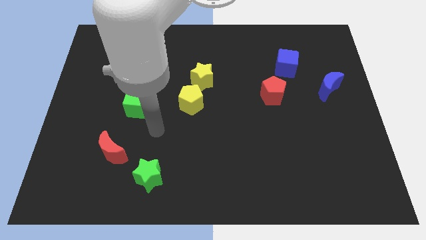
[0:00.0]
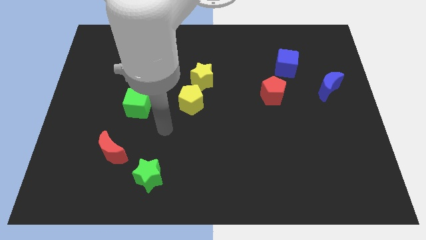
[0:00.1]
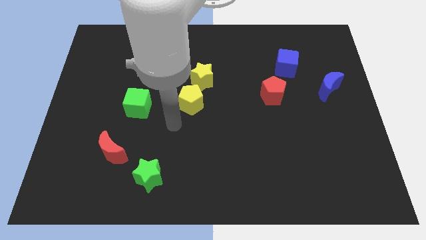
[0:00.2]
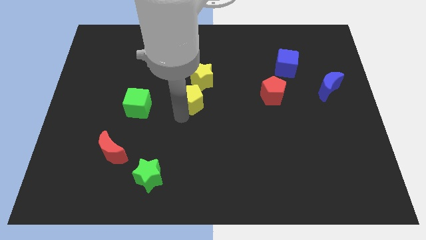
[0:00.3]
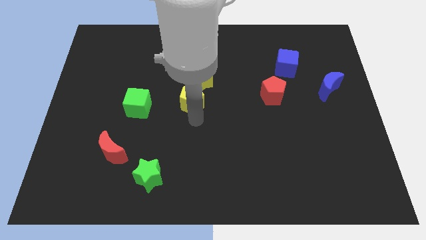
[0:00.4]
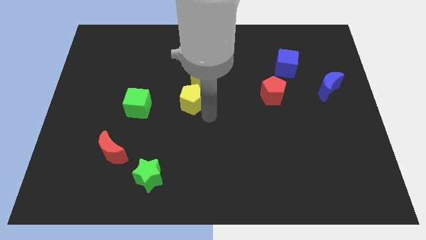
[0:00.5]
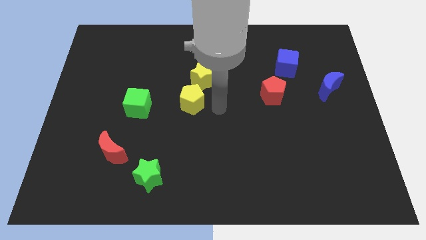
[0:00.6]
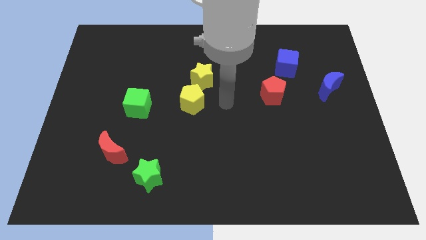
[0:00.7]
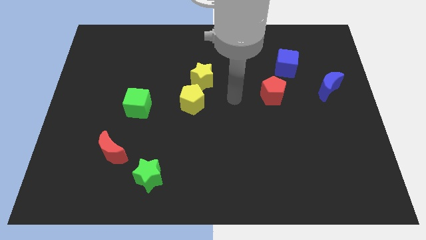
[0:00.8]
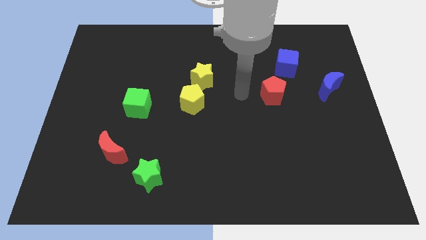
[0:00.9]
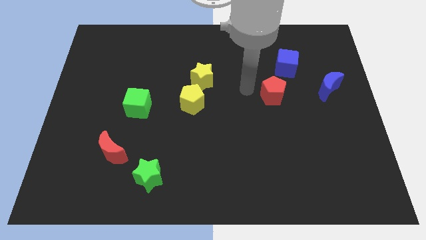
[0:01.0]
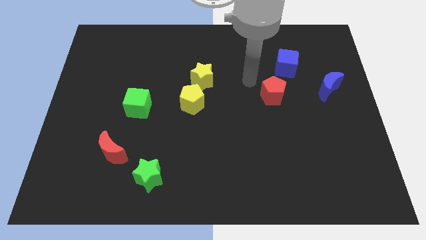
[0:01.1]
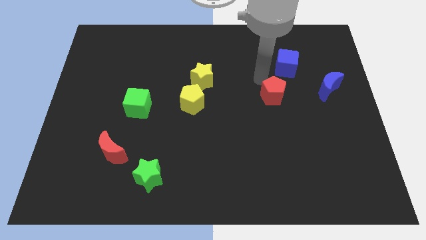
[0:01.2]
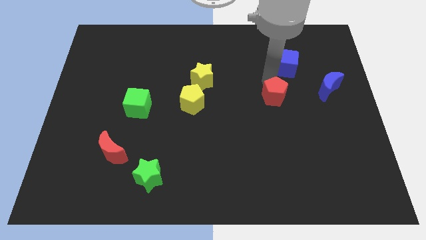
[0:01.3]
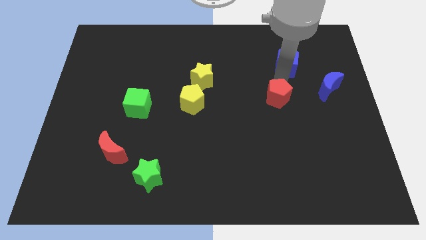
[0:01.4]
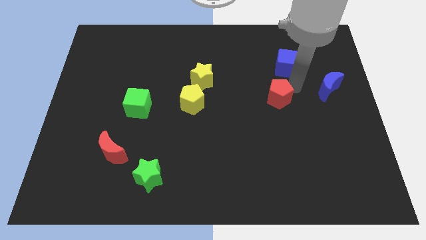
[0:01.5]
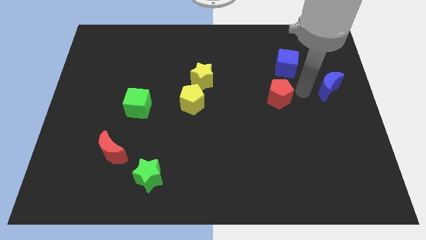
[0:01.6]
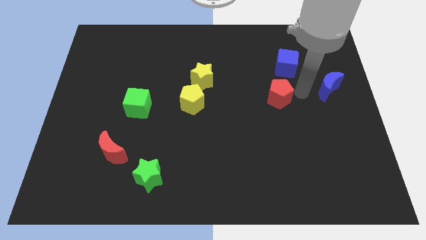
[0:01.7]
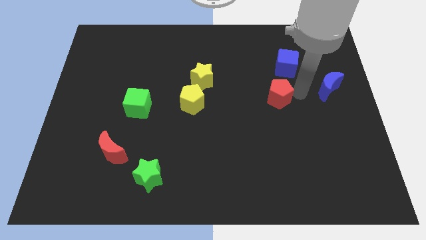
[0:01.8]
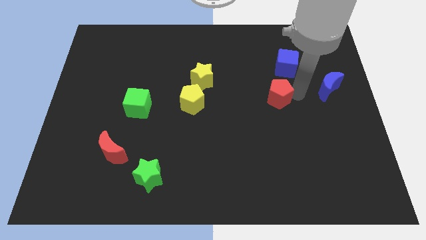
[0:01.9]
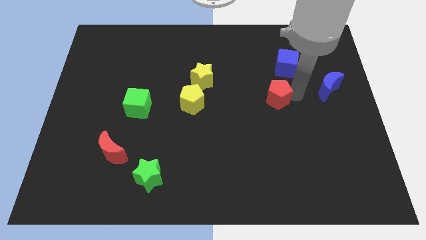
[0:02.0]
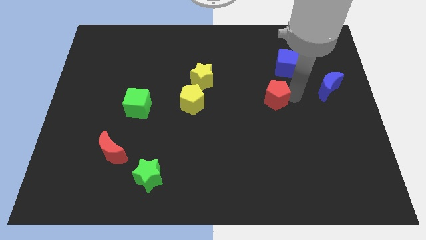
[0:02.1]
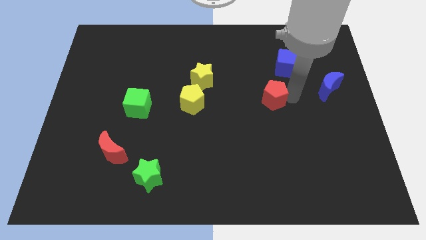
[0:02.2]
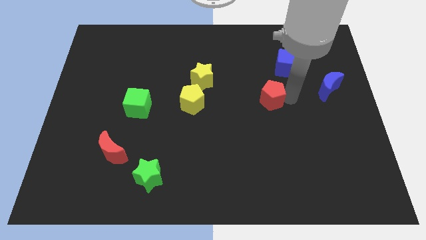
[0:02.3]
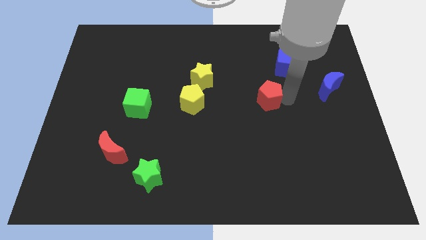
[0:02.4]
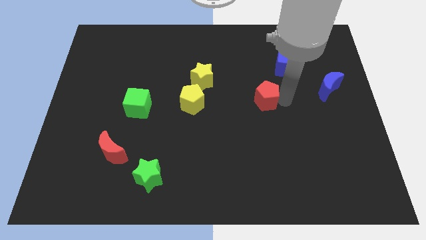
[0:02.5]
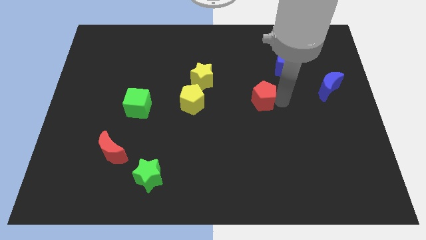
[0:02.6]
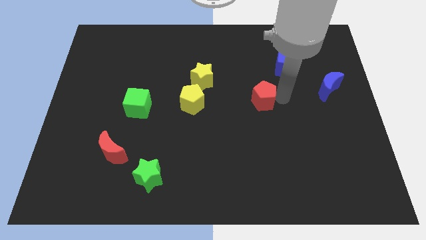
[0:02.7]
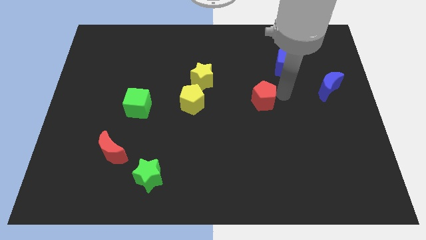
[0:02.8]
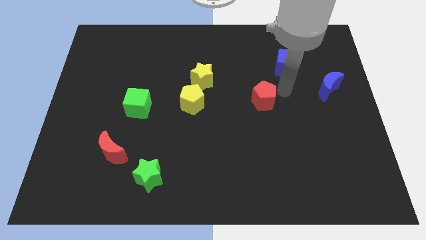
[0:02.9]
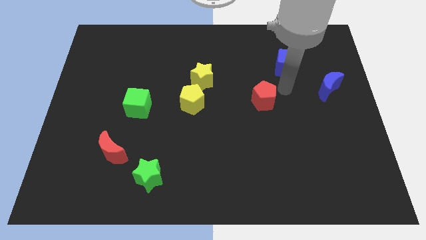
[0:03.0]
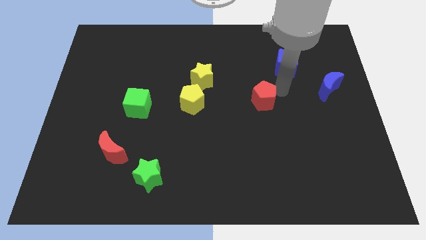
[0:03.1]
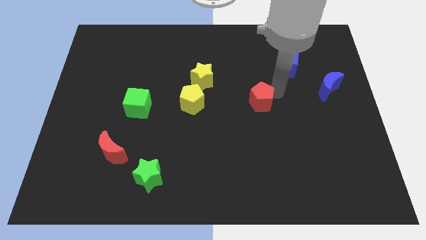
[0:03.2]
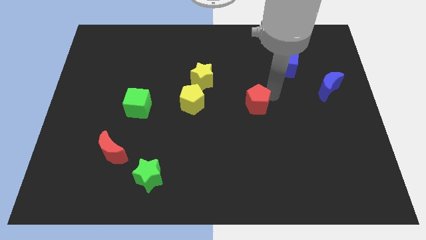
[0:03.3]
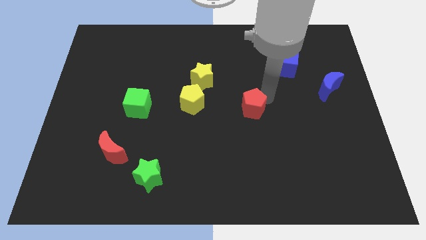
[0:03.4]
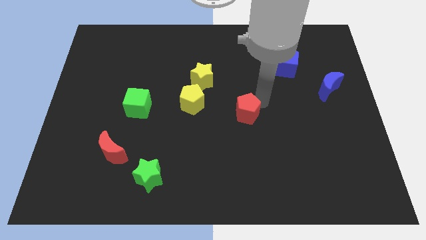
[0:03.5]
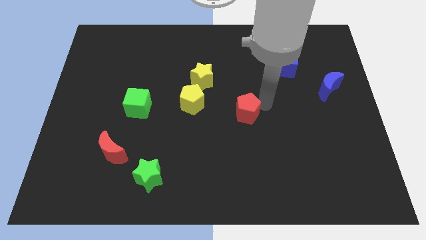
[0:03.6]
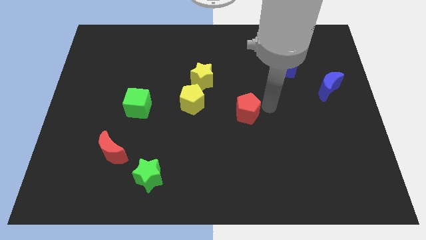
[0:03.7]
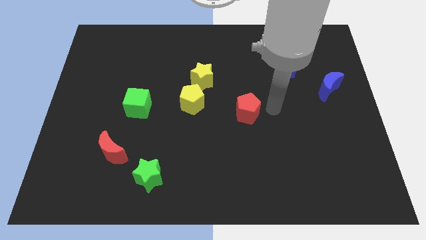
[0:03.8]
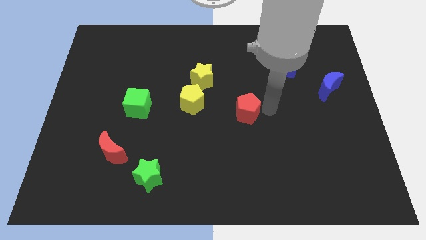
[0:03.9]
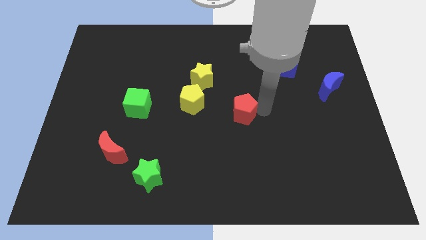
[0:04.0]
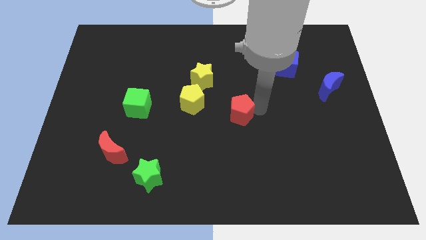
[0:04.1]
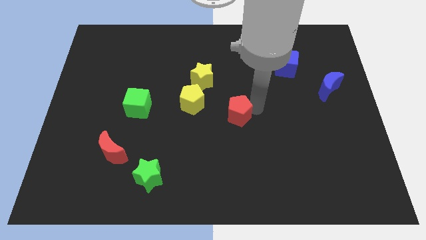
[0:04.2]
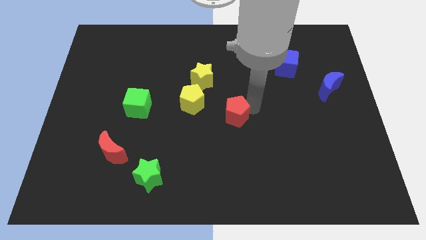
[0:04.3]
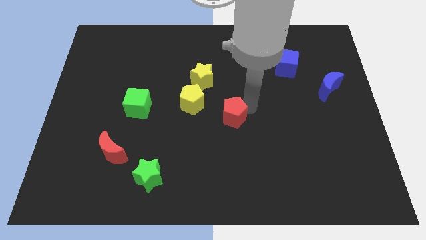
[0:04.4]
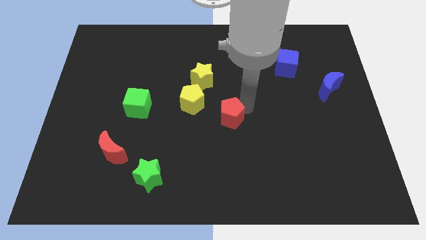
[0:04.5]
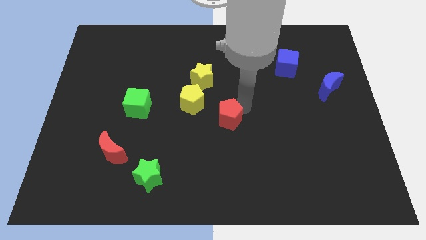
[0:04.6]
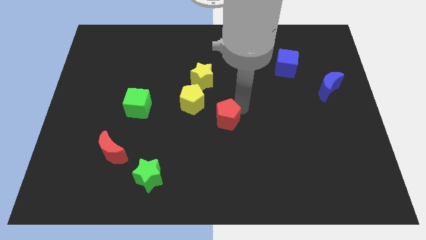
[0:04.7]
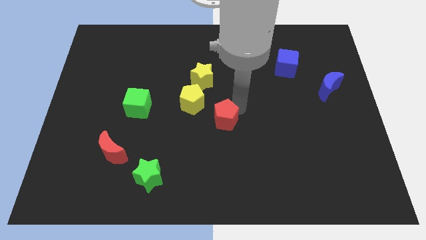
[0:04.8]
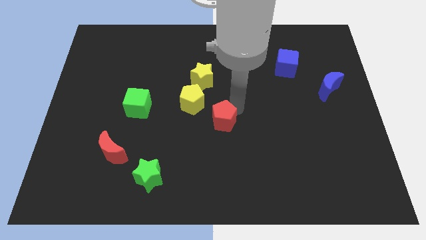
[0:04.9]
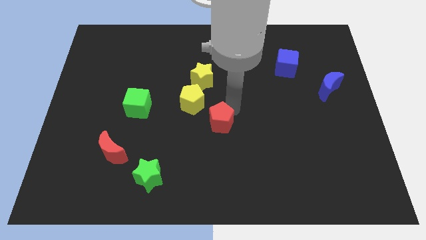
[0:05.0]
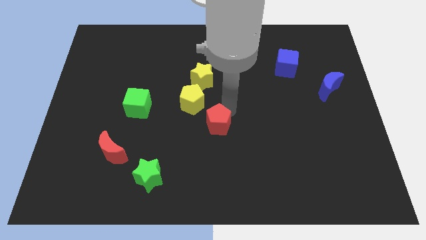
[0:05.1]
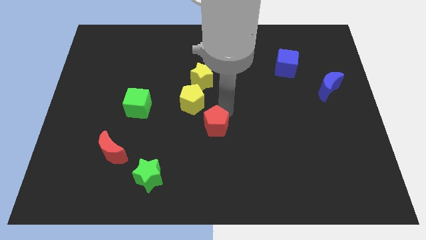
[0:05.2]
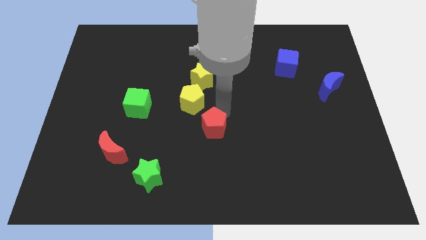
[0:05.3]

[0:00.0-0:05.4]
push the red pentagon to the bottom side of the yellow pentagon

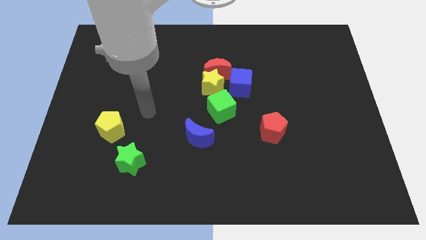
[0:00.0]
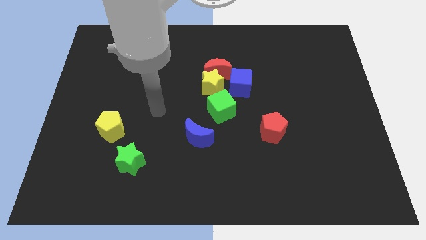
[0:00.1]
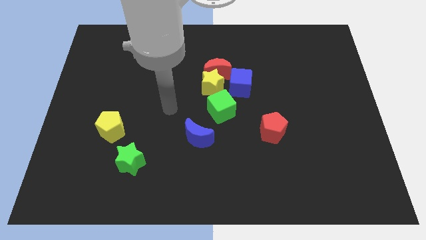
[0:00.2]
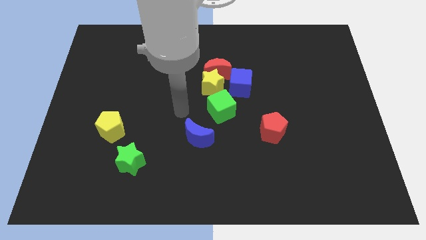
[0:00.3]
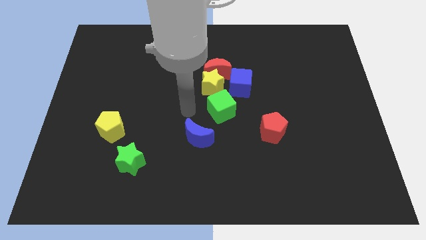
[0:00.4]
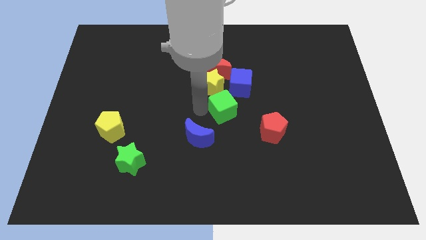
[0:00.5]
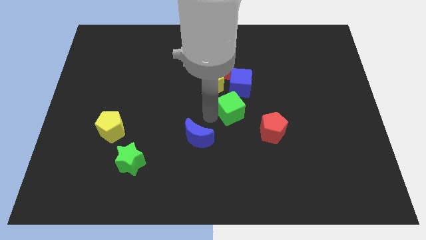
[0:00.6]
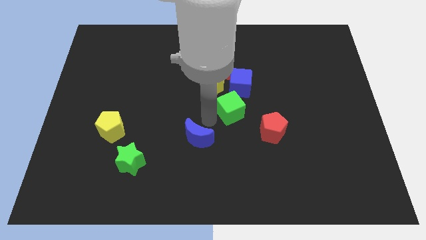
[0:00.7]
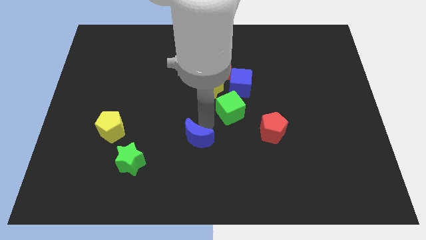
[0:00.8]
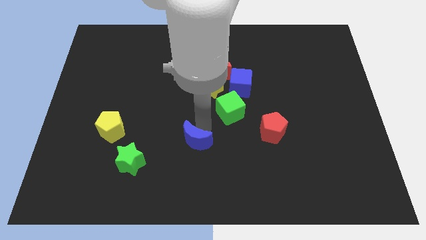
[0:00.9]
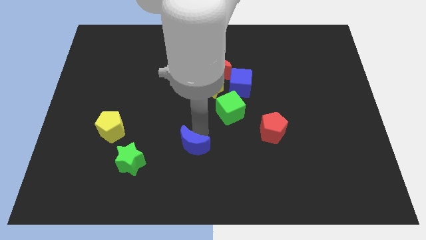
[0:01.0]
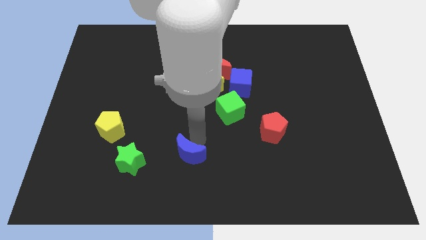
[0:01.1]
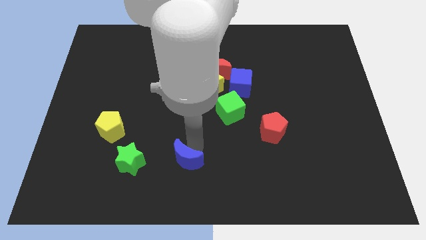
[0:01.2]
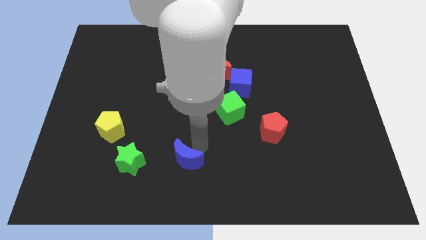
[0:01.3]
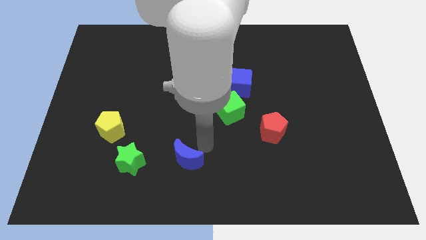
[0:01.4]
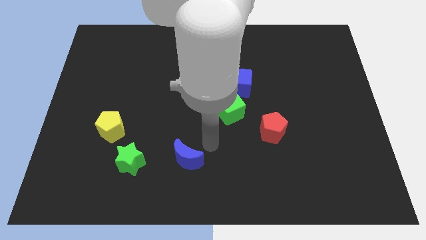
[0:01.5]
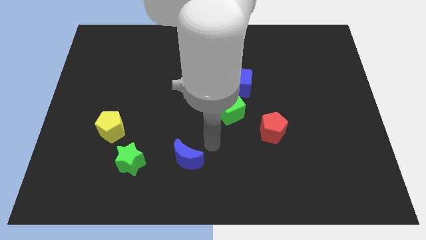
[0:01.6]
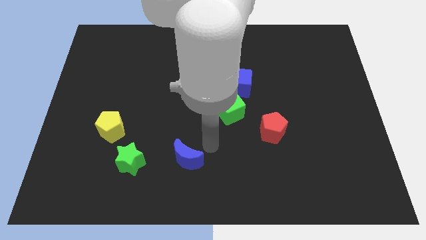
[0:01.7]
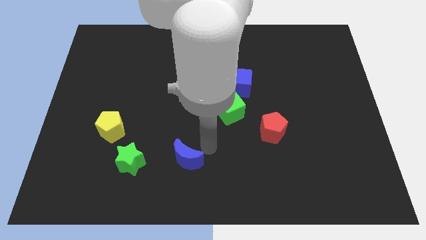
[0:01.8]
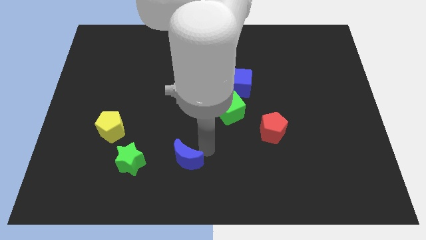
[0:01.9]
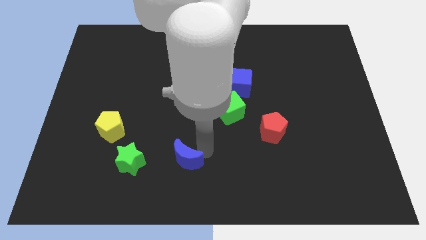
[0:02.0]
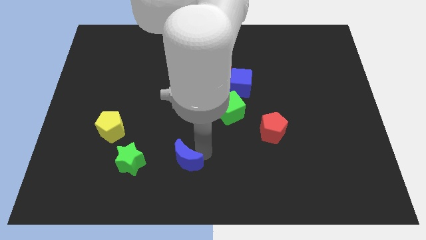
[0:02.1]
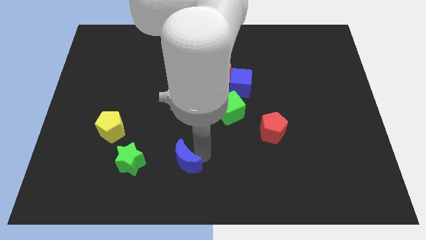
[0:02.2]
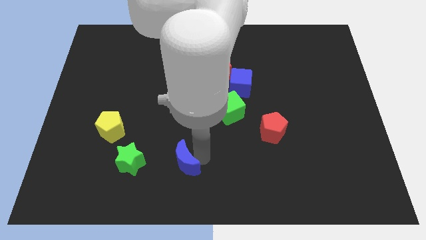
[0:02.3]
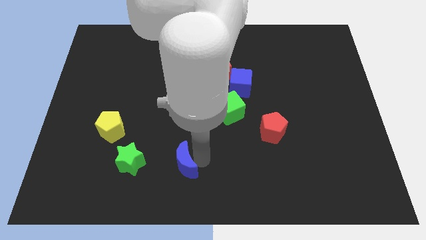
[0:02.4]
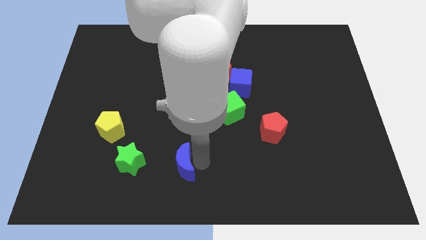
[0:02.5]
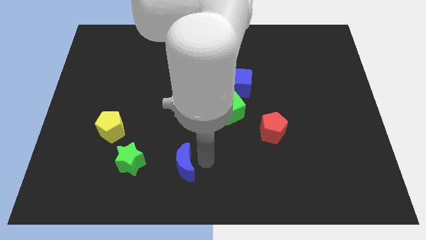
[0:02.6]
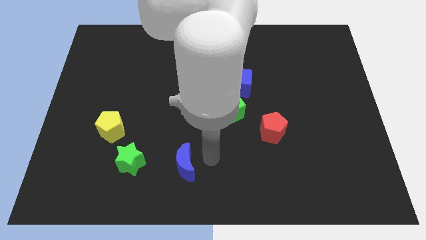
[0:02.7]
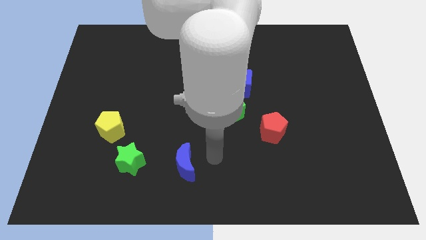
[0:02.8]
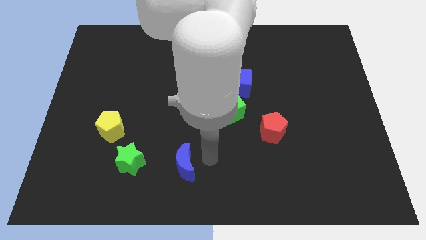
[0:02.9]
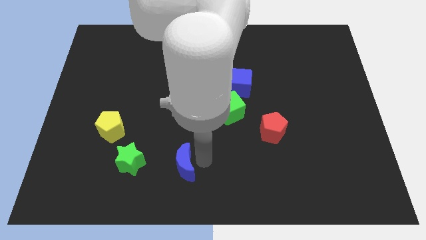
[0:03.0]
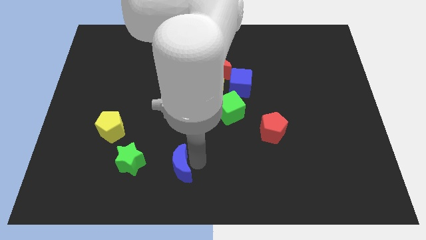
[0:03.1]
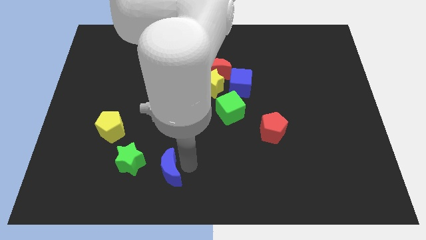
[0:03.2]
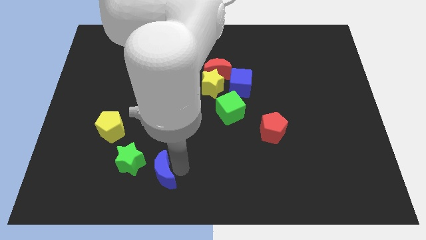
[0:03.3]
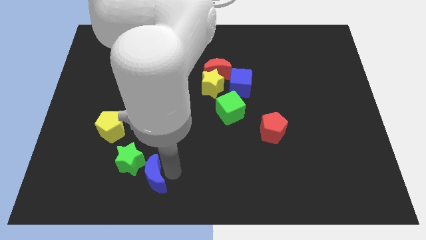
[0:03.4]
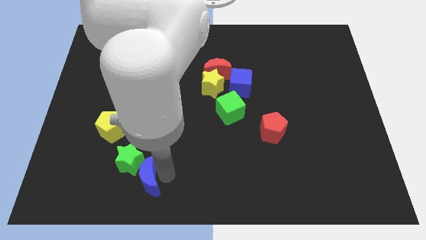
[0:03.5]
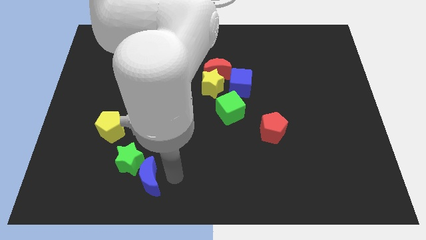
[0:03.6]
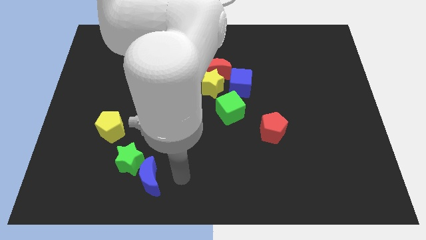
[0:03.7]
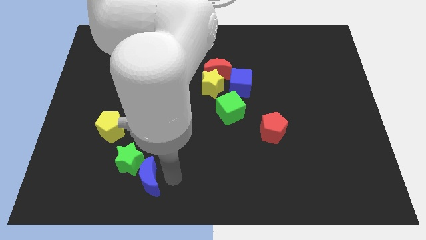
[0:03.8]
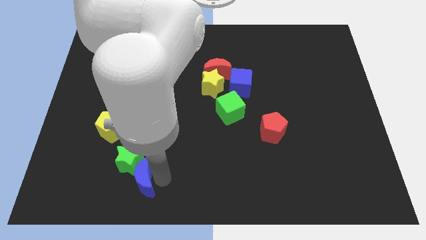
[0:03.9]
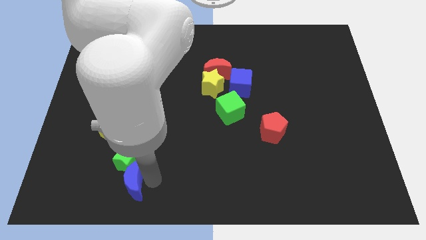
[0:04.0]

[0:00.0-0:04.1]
move the blue moon to the bottom left of the green star
